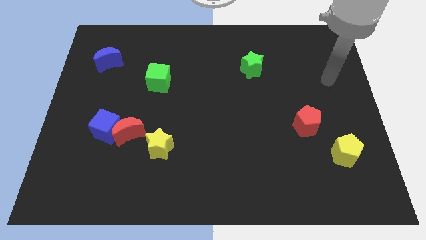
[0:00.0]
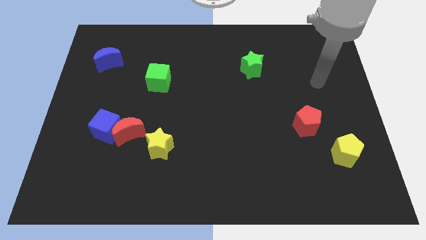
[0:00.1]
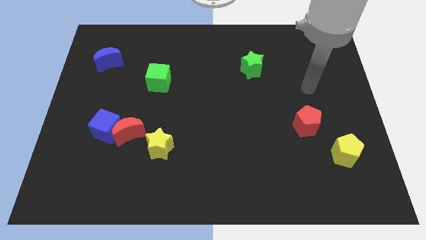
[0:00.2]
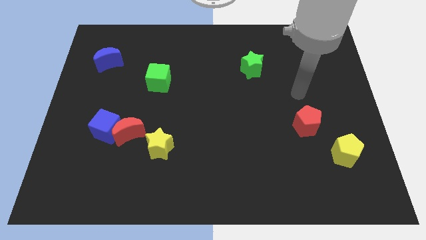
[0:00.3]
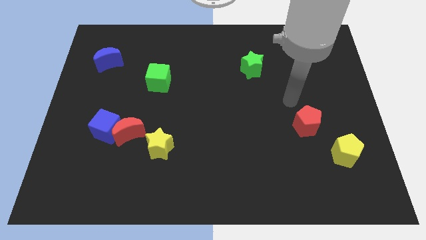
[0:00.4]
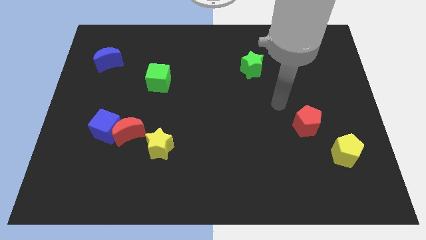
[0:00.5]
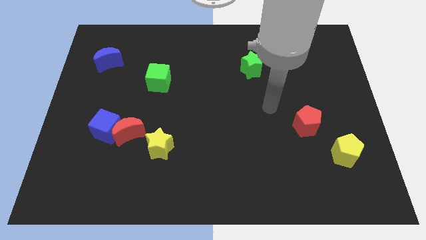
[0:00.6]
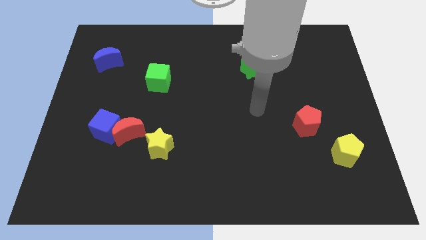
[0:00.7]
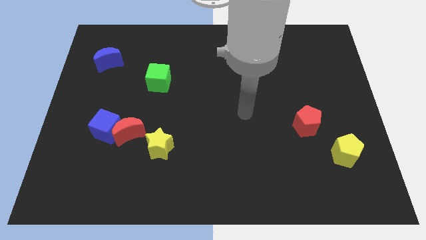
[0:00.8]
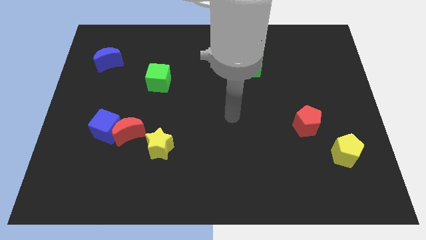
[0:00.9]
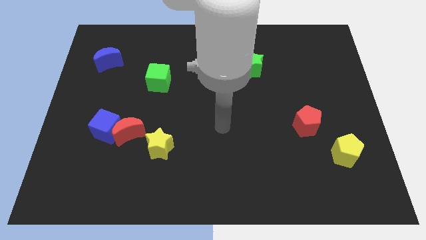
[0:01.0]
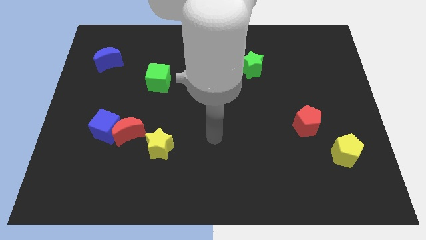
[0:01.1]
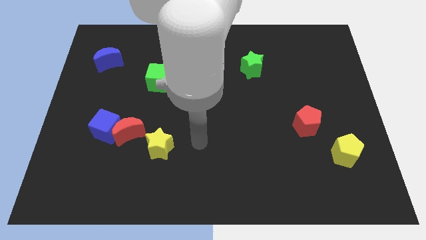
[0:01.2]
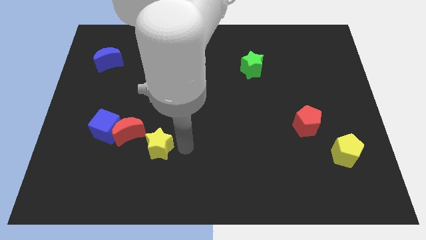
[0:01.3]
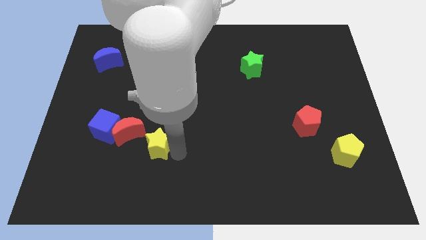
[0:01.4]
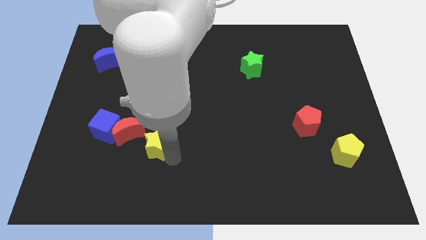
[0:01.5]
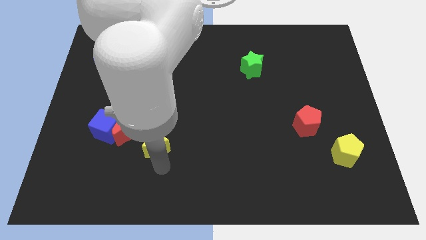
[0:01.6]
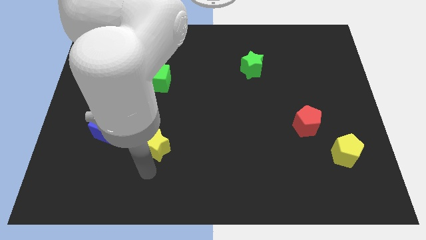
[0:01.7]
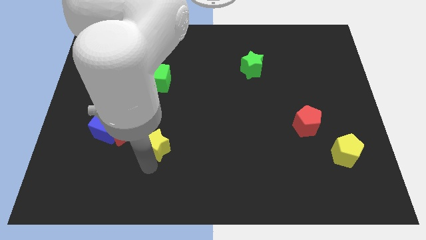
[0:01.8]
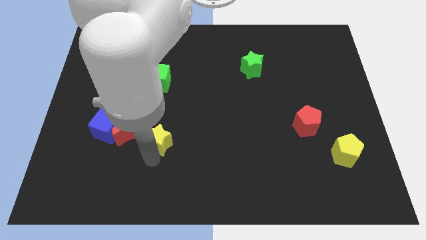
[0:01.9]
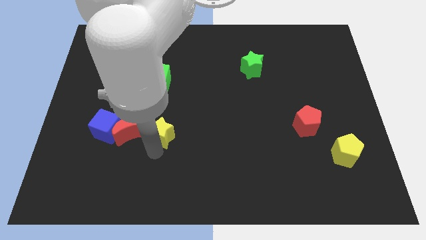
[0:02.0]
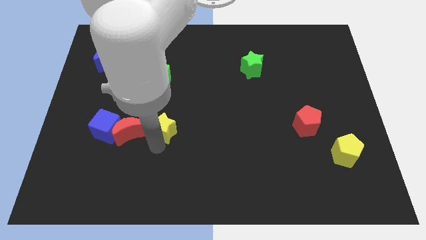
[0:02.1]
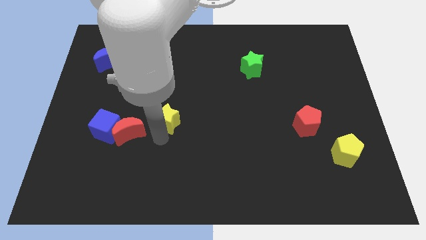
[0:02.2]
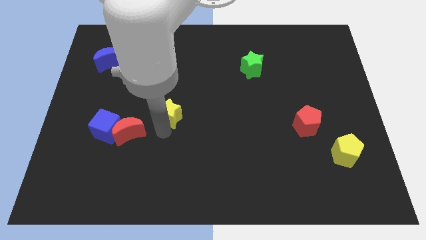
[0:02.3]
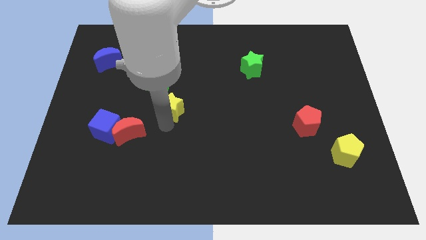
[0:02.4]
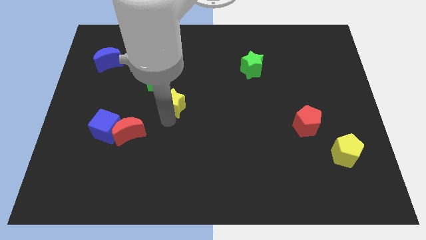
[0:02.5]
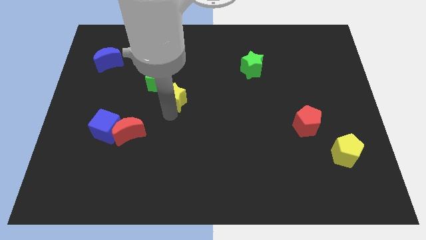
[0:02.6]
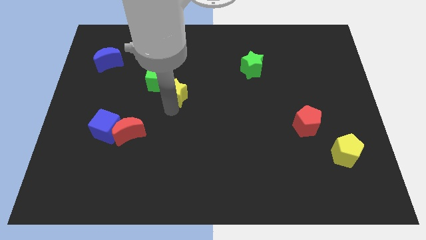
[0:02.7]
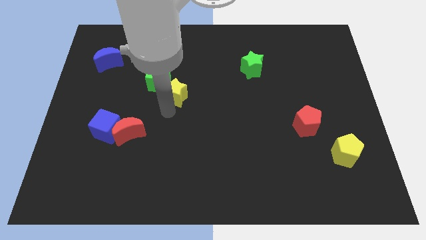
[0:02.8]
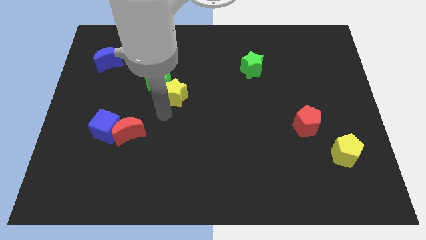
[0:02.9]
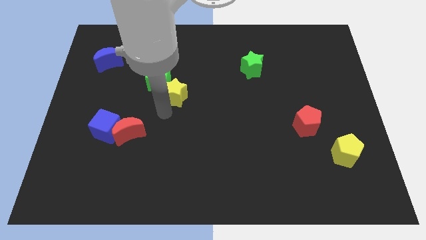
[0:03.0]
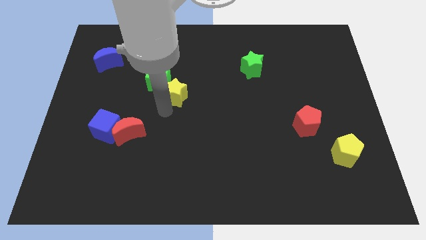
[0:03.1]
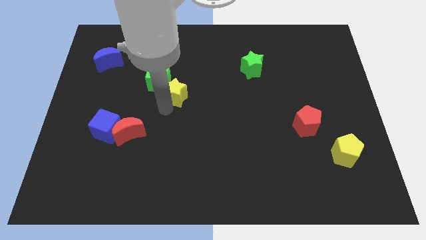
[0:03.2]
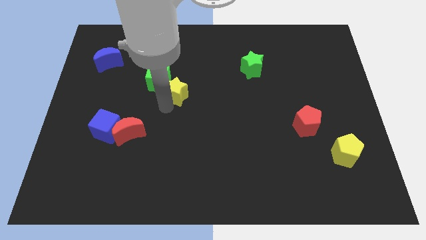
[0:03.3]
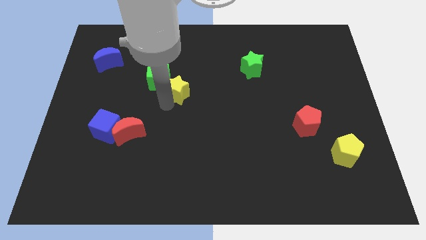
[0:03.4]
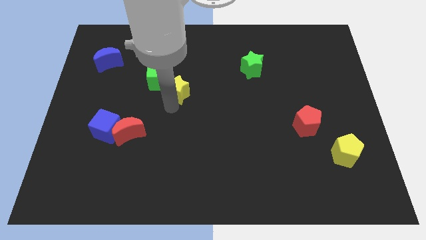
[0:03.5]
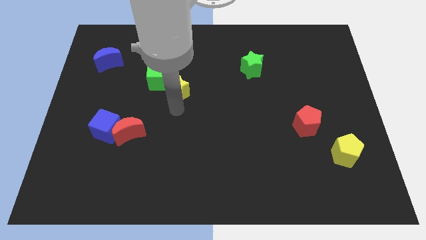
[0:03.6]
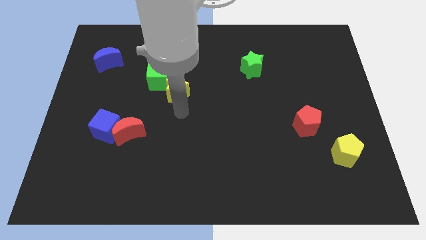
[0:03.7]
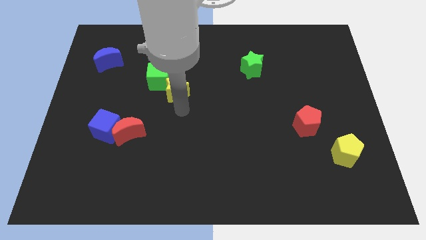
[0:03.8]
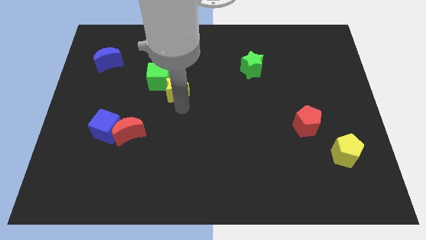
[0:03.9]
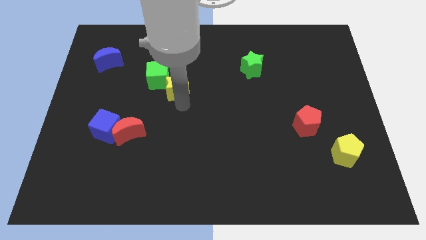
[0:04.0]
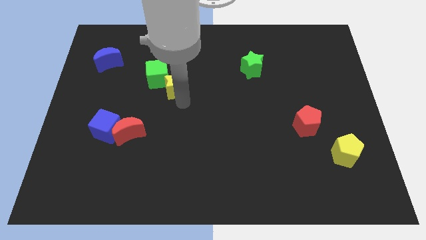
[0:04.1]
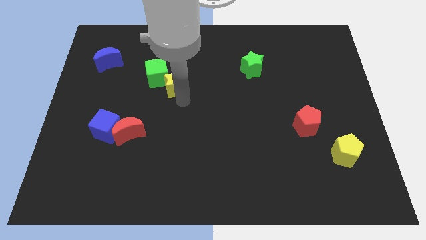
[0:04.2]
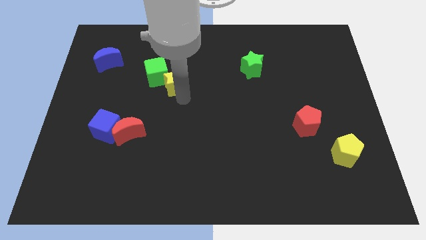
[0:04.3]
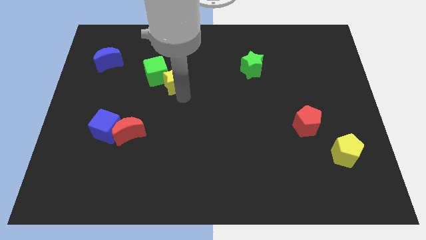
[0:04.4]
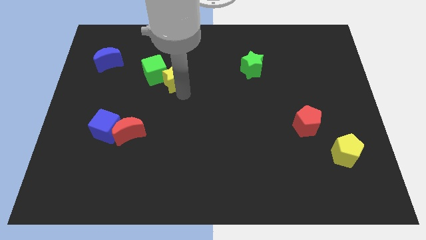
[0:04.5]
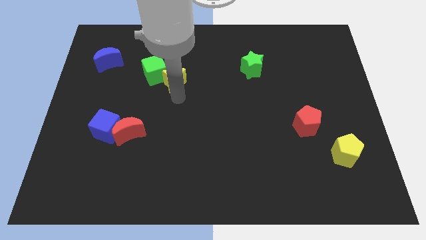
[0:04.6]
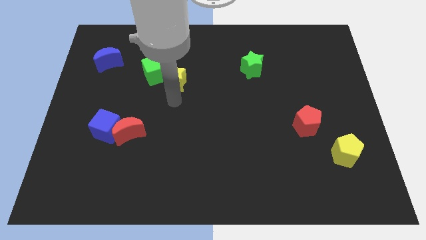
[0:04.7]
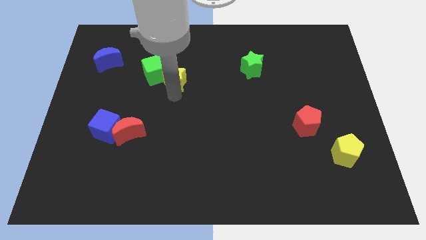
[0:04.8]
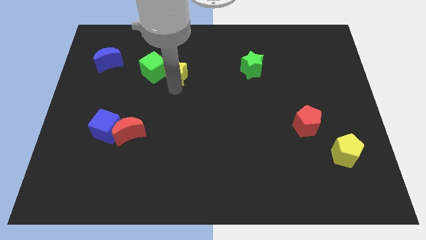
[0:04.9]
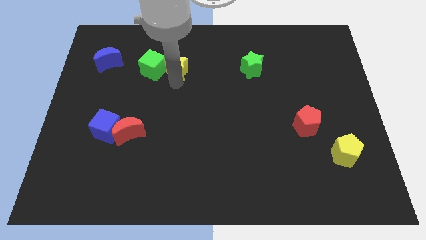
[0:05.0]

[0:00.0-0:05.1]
push the yellow star to the top right of the green cube
